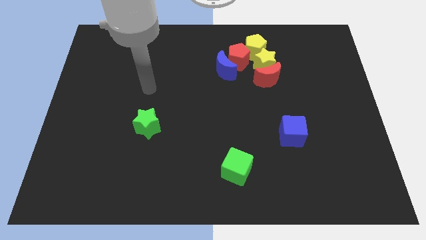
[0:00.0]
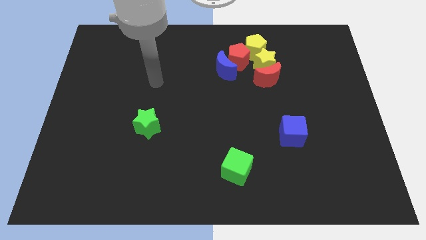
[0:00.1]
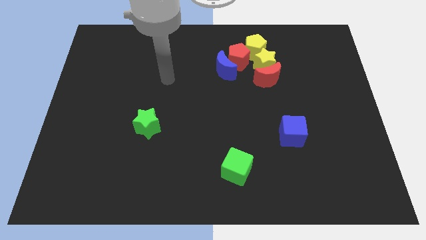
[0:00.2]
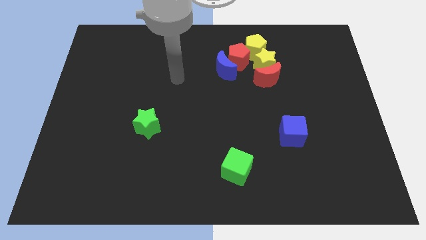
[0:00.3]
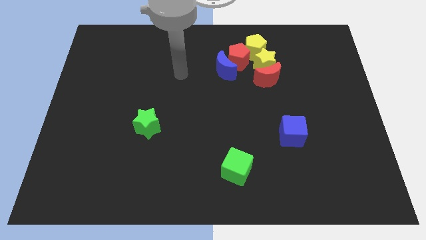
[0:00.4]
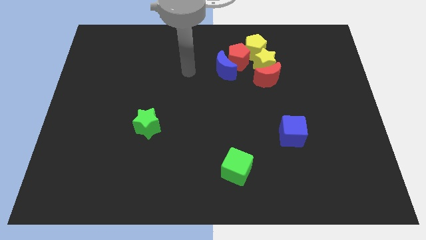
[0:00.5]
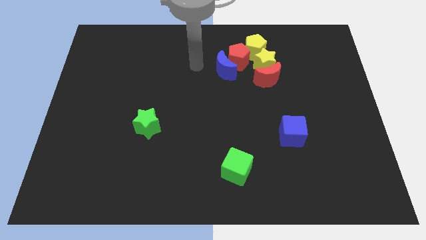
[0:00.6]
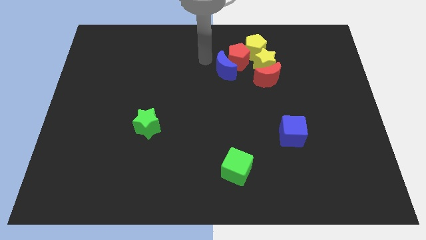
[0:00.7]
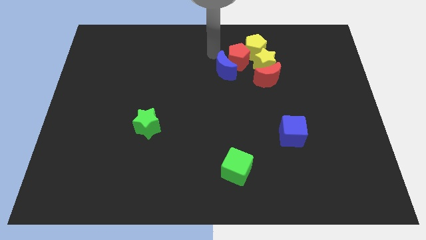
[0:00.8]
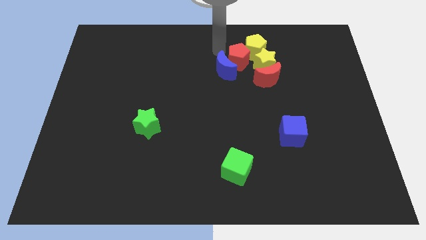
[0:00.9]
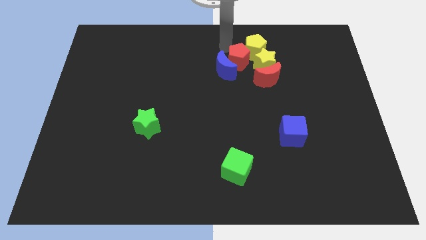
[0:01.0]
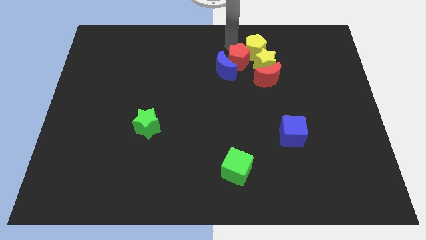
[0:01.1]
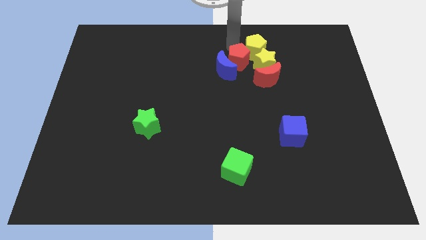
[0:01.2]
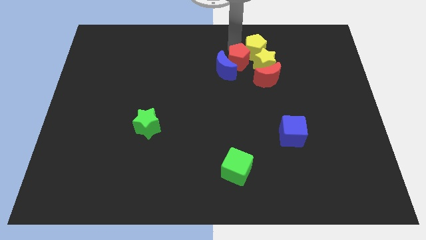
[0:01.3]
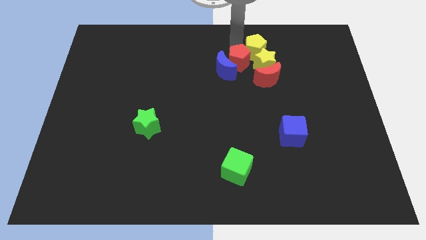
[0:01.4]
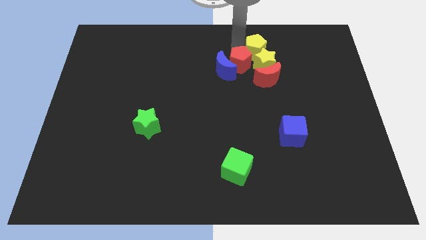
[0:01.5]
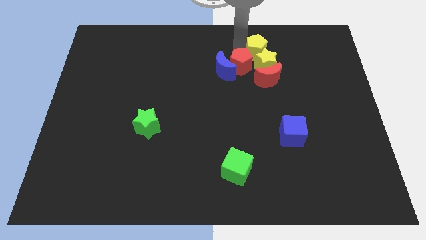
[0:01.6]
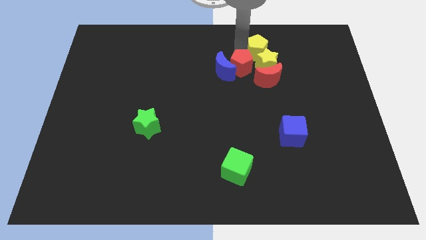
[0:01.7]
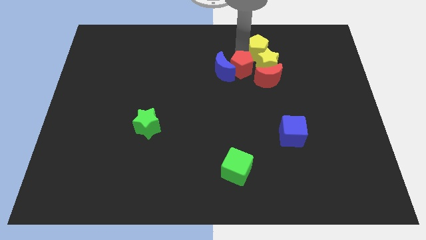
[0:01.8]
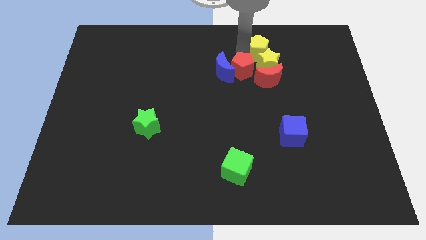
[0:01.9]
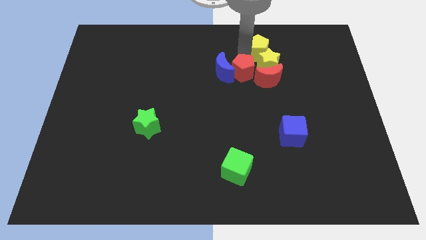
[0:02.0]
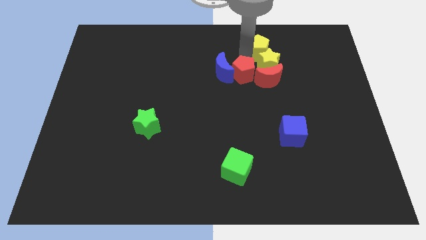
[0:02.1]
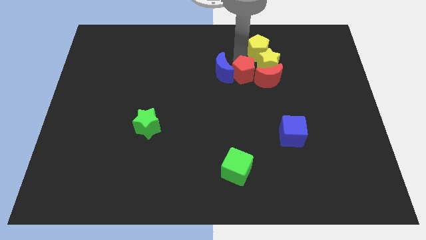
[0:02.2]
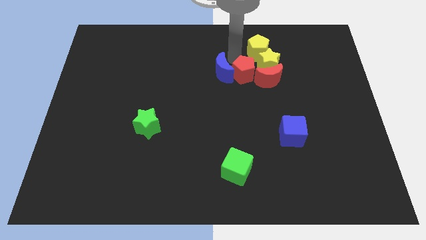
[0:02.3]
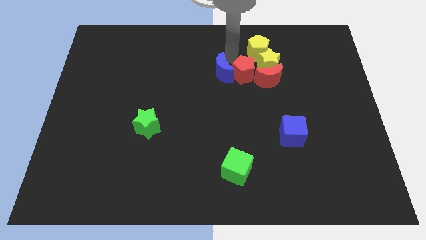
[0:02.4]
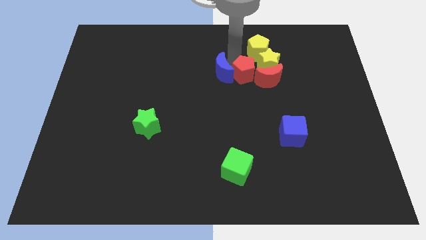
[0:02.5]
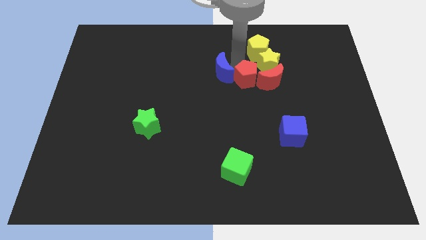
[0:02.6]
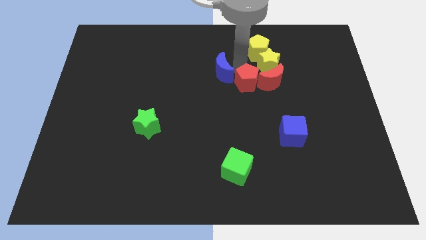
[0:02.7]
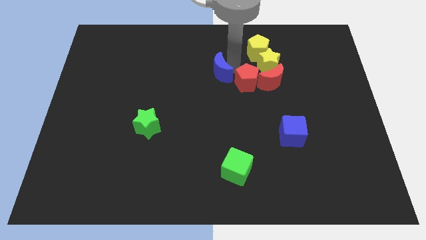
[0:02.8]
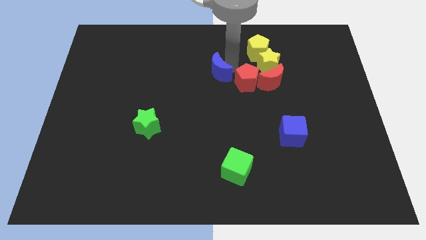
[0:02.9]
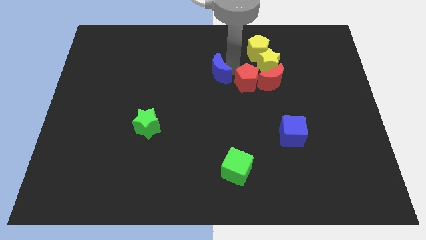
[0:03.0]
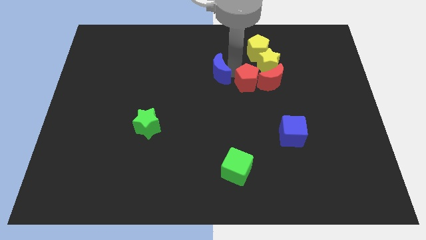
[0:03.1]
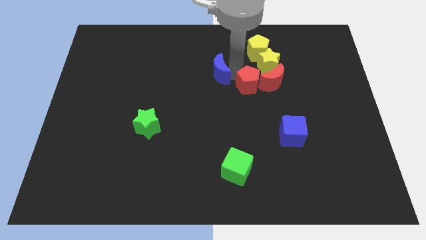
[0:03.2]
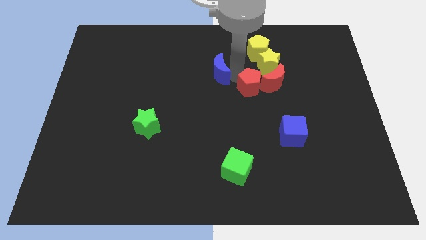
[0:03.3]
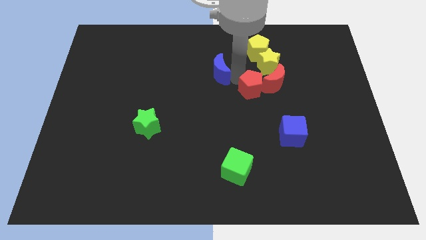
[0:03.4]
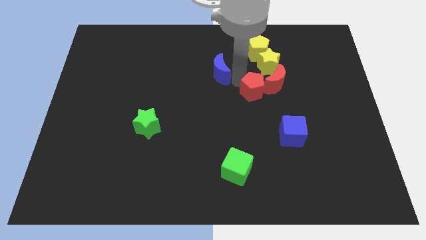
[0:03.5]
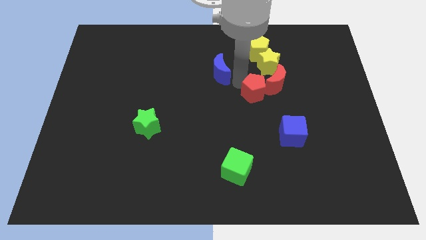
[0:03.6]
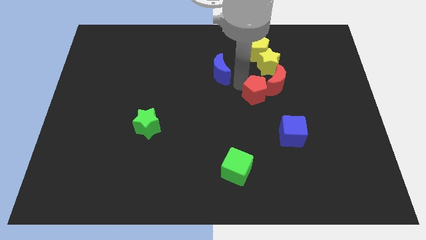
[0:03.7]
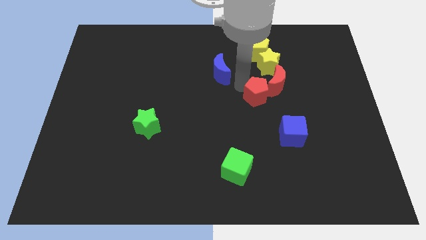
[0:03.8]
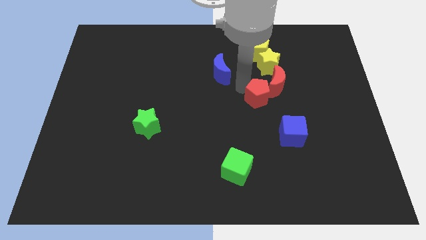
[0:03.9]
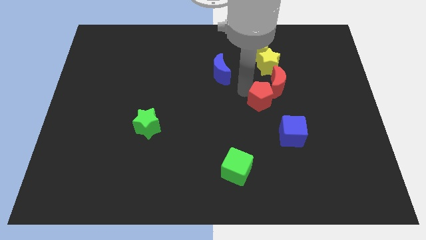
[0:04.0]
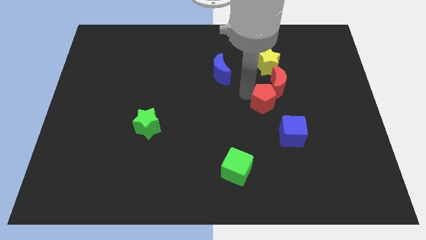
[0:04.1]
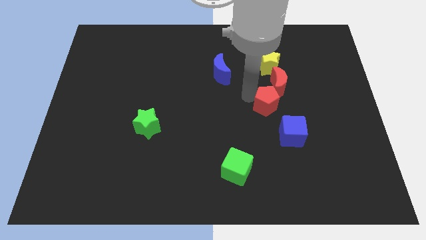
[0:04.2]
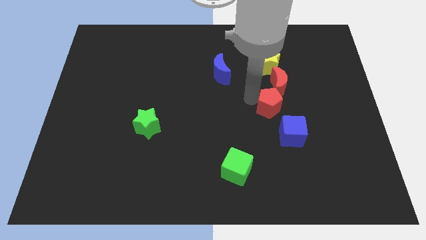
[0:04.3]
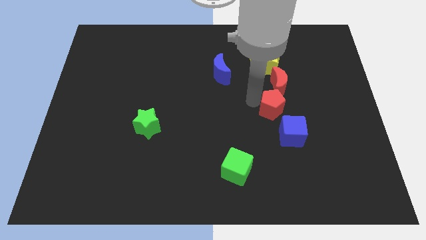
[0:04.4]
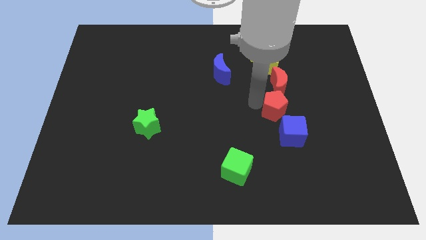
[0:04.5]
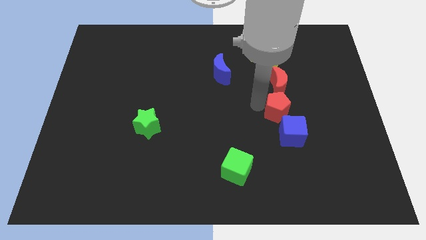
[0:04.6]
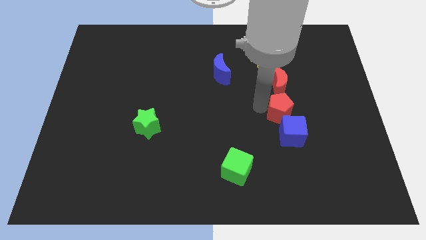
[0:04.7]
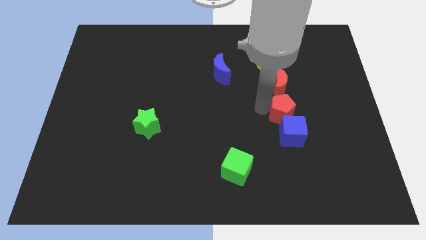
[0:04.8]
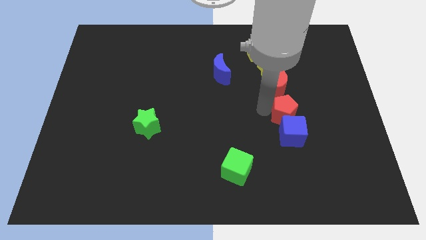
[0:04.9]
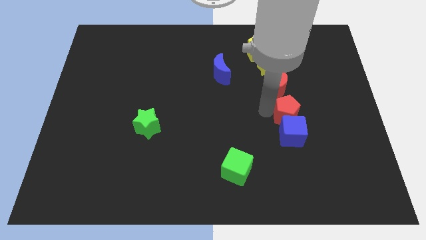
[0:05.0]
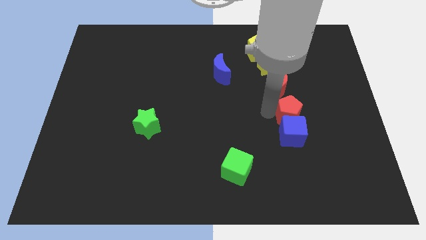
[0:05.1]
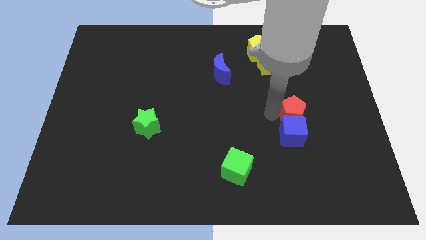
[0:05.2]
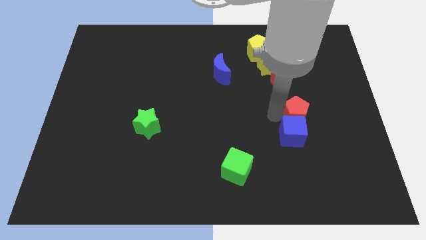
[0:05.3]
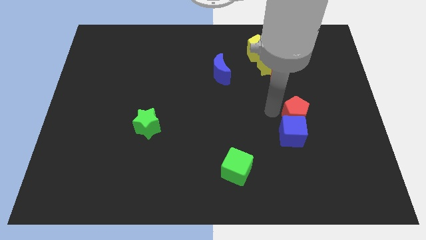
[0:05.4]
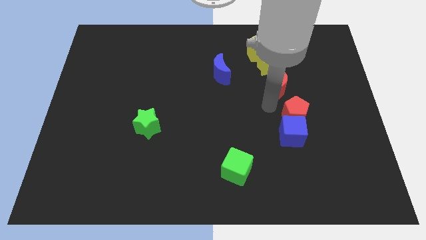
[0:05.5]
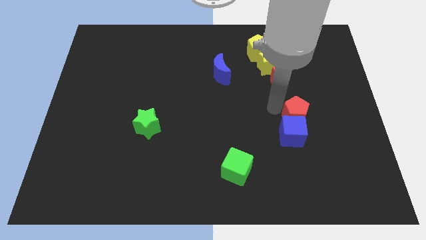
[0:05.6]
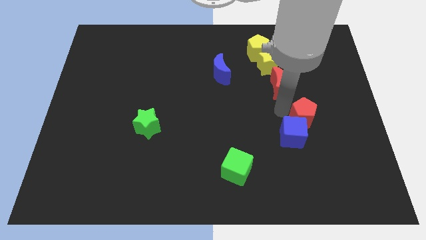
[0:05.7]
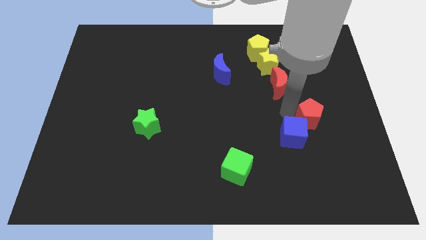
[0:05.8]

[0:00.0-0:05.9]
slide the red pentagon right of the blue cube

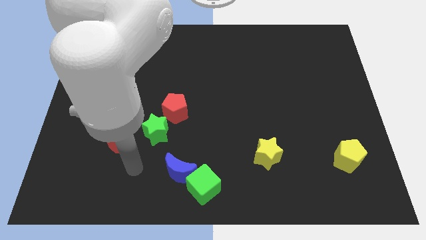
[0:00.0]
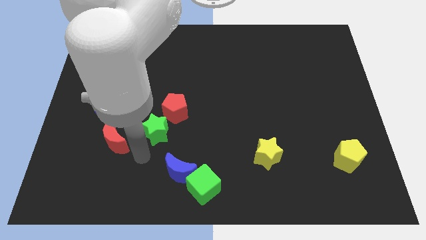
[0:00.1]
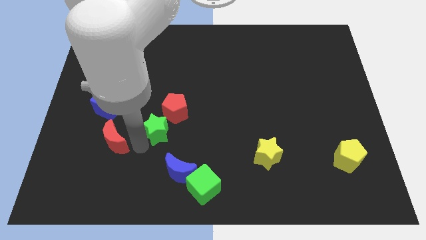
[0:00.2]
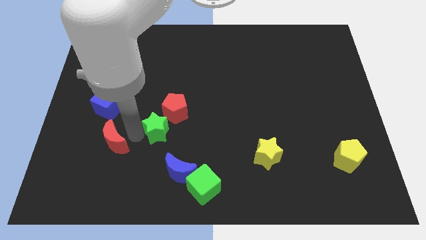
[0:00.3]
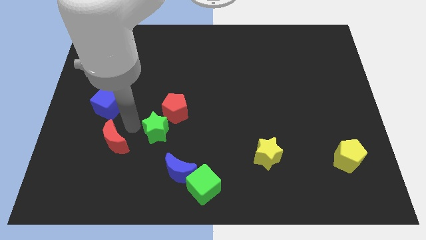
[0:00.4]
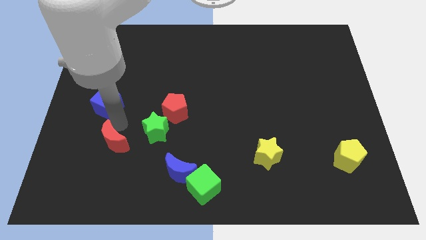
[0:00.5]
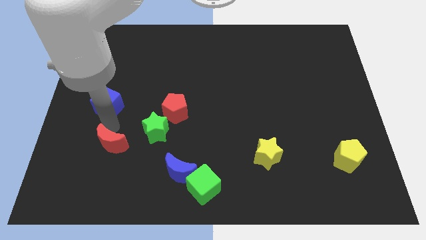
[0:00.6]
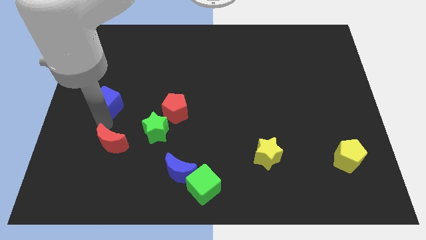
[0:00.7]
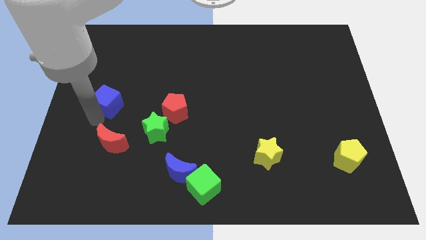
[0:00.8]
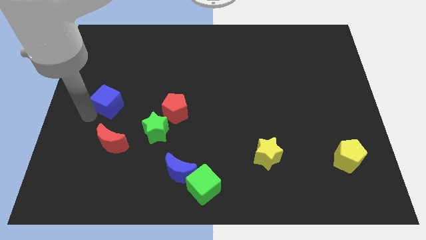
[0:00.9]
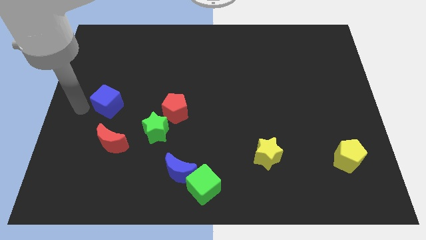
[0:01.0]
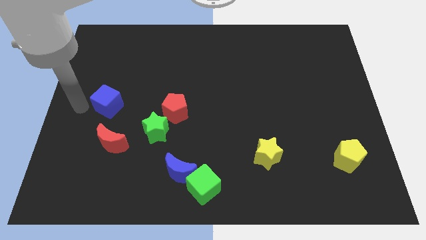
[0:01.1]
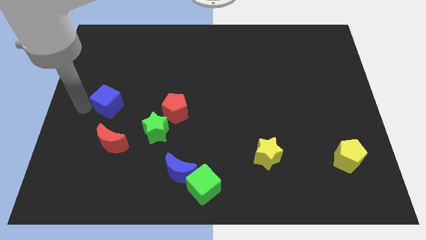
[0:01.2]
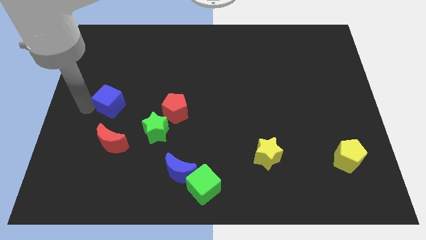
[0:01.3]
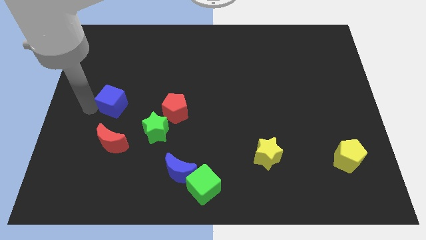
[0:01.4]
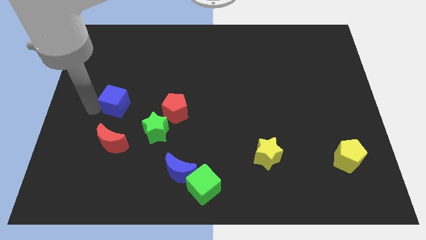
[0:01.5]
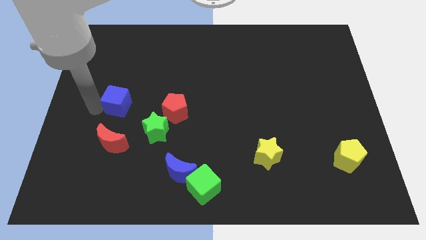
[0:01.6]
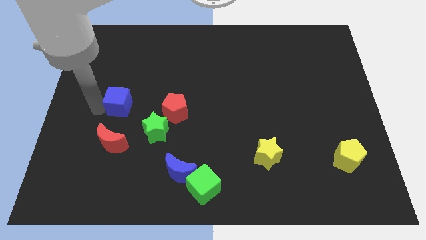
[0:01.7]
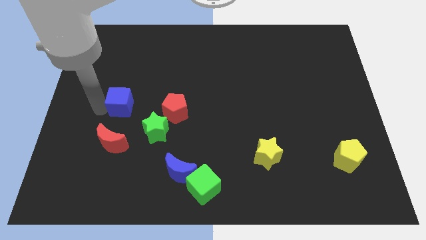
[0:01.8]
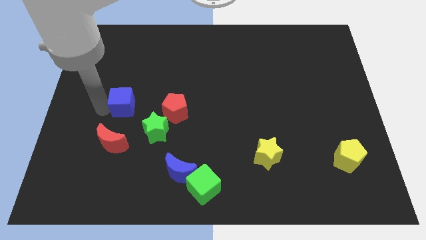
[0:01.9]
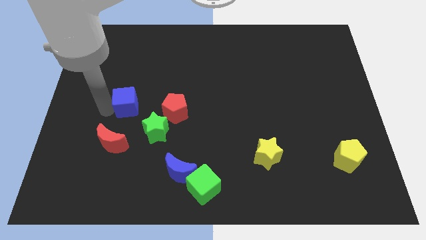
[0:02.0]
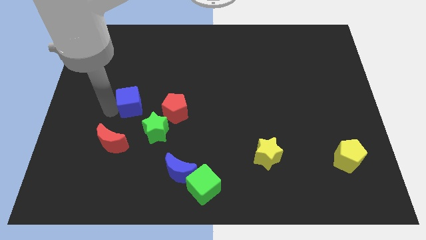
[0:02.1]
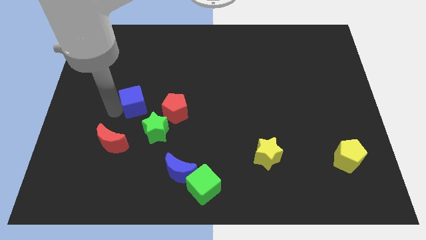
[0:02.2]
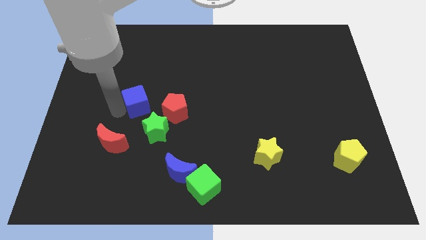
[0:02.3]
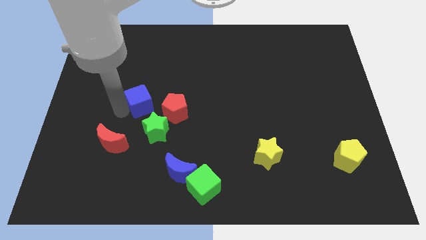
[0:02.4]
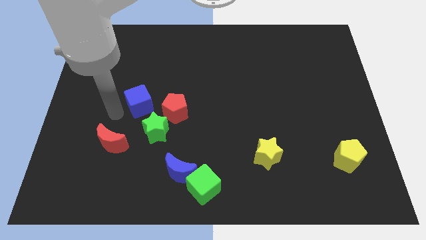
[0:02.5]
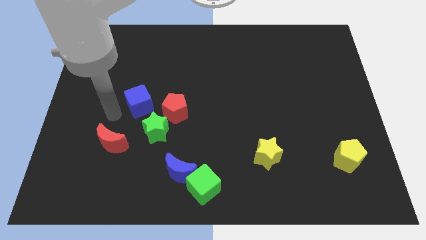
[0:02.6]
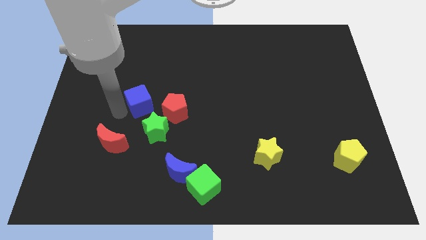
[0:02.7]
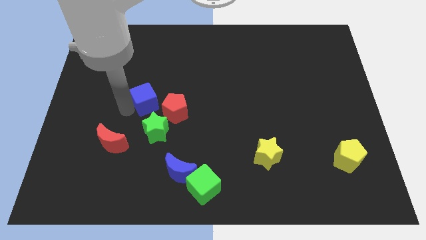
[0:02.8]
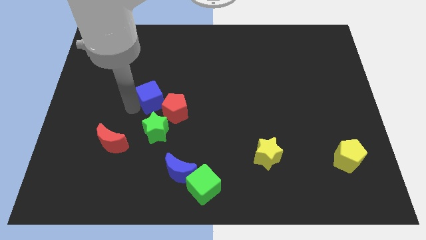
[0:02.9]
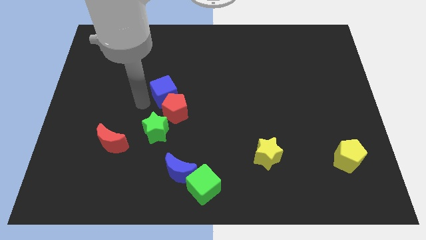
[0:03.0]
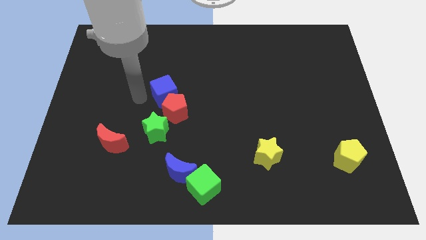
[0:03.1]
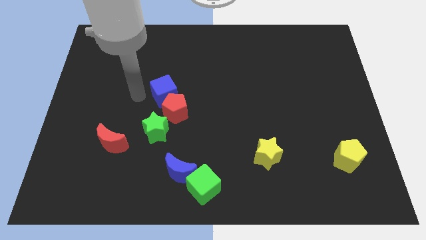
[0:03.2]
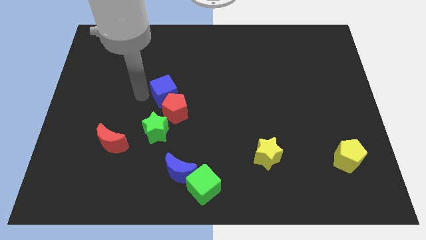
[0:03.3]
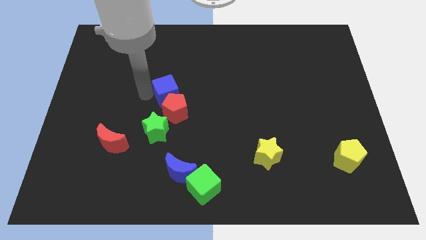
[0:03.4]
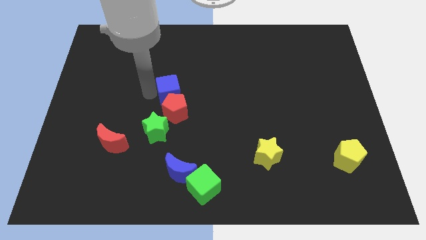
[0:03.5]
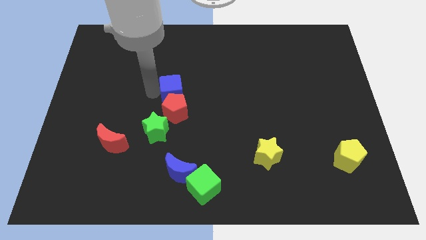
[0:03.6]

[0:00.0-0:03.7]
move the blue cube to the top right of the red pentagon
